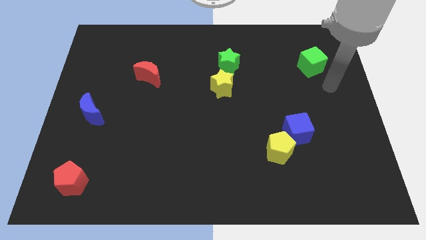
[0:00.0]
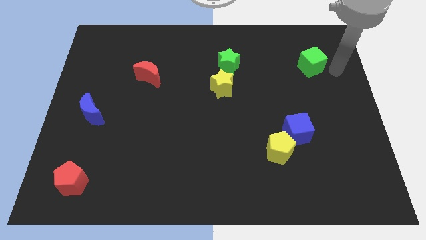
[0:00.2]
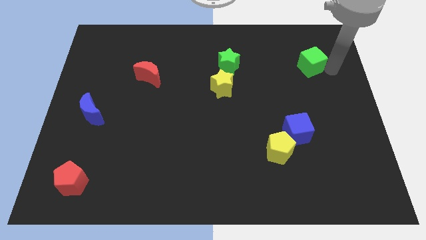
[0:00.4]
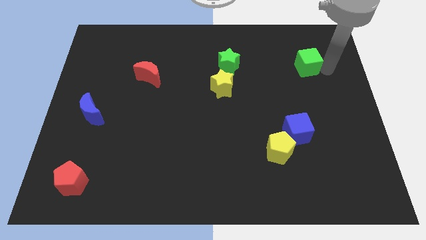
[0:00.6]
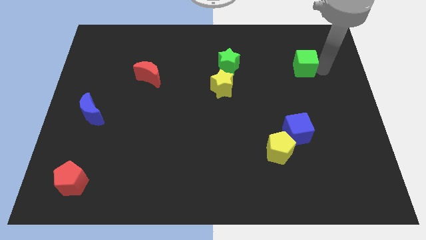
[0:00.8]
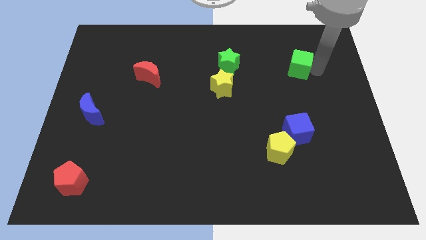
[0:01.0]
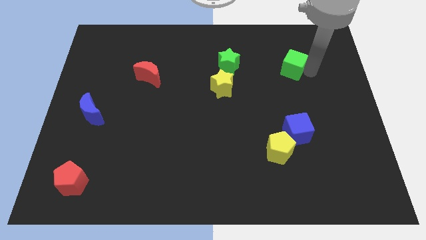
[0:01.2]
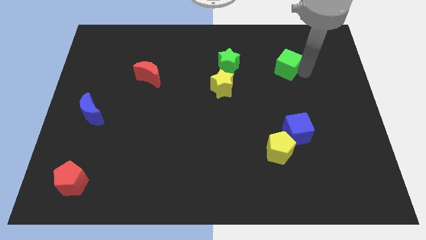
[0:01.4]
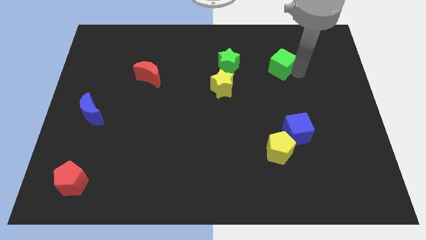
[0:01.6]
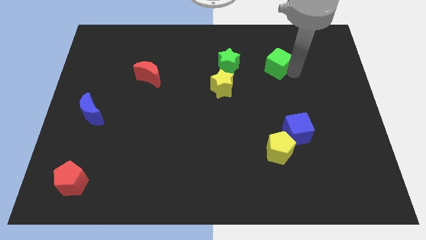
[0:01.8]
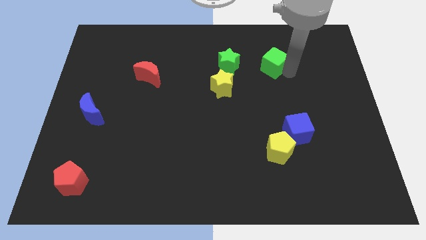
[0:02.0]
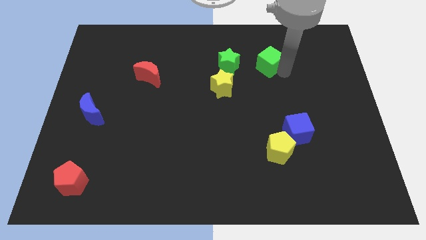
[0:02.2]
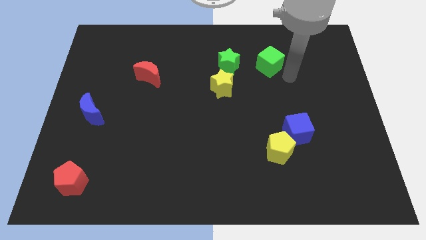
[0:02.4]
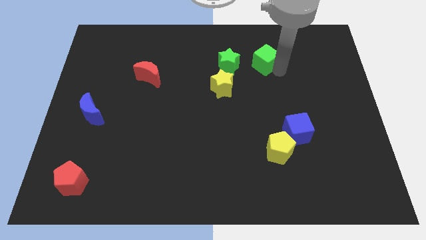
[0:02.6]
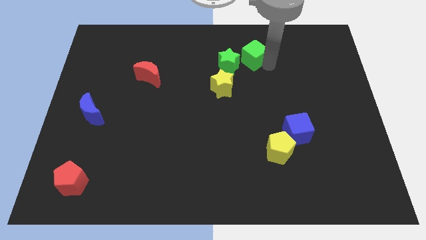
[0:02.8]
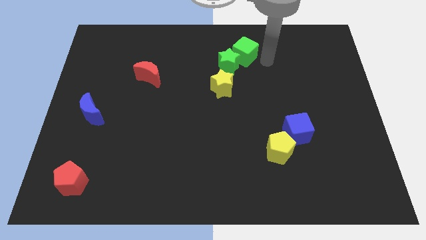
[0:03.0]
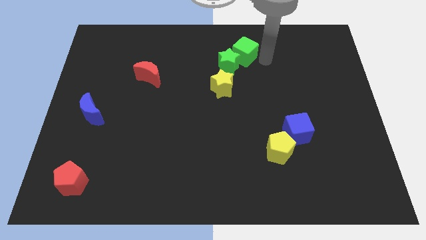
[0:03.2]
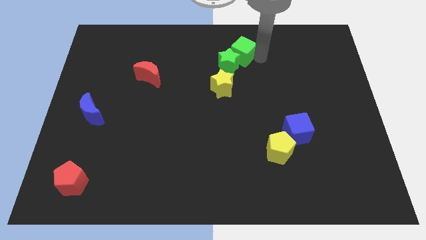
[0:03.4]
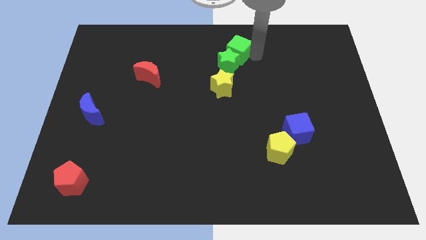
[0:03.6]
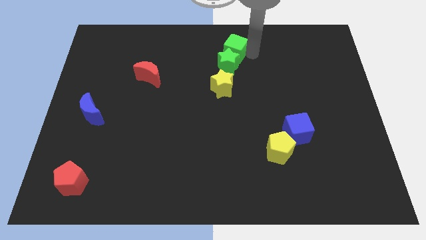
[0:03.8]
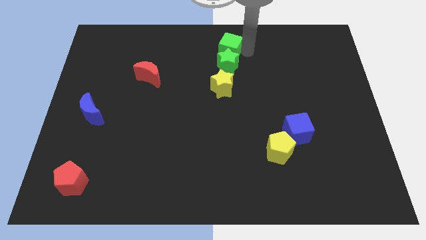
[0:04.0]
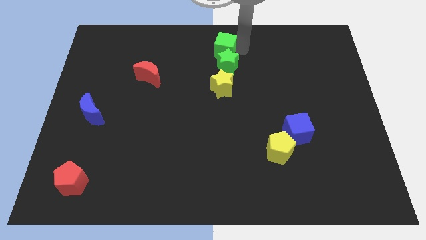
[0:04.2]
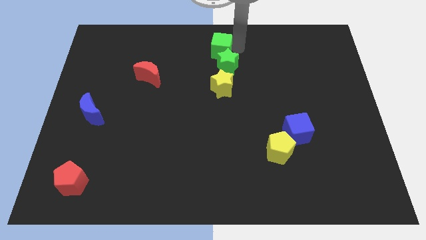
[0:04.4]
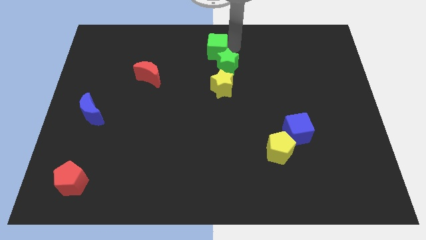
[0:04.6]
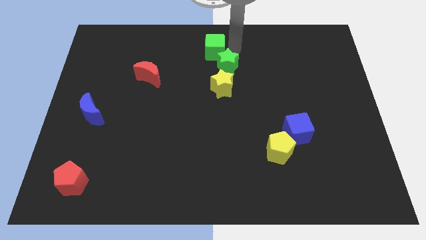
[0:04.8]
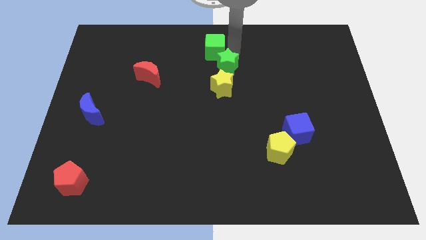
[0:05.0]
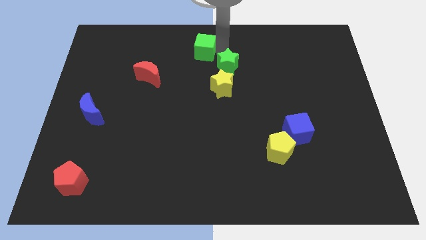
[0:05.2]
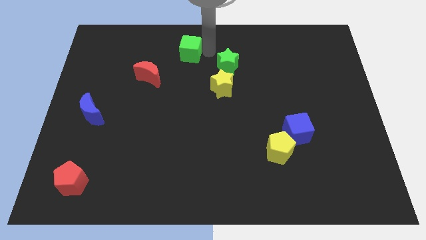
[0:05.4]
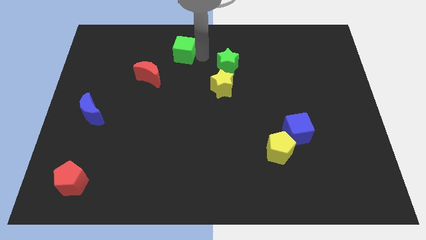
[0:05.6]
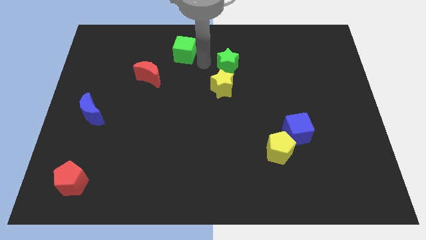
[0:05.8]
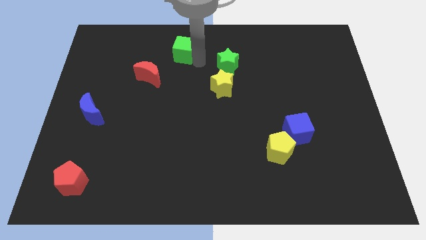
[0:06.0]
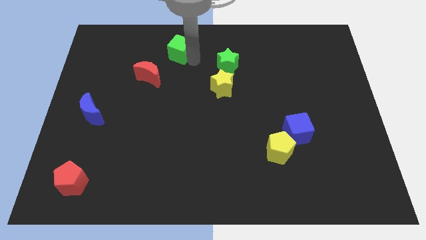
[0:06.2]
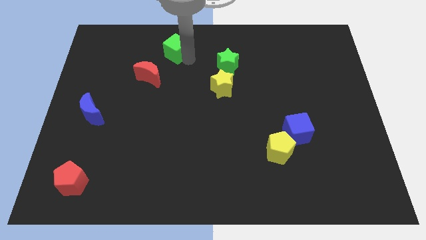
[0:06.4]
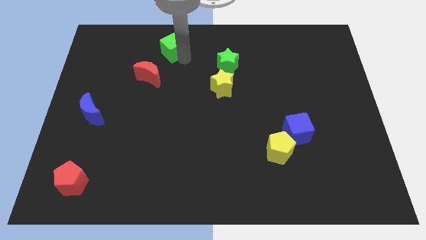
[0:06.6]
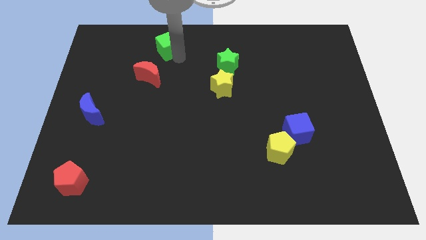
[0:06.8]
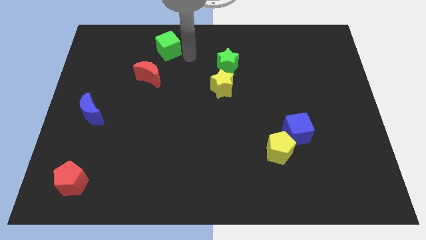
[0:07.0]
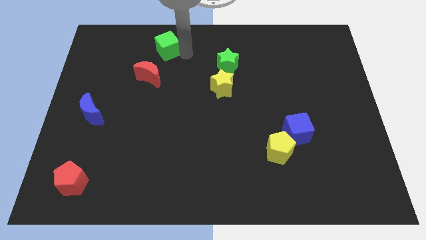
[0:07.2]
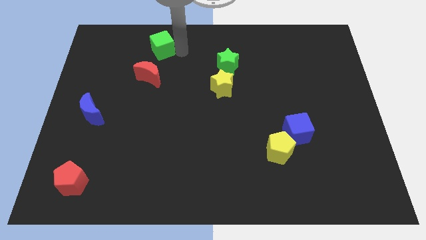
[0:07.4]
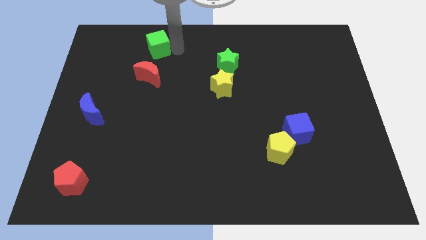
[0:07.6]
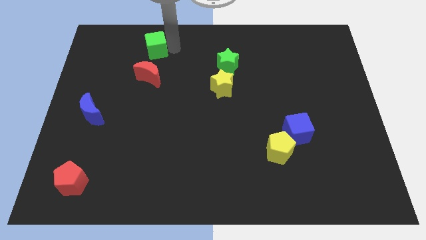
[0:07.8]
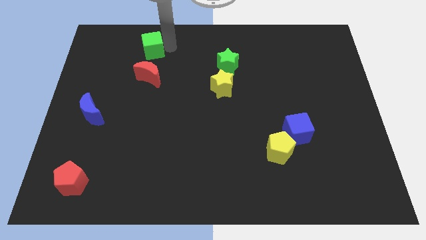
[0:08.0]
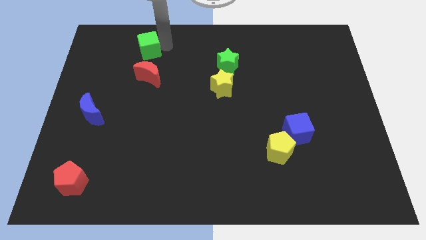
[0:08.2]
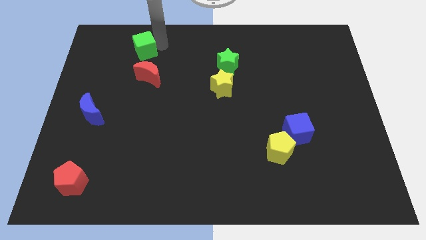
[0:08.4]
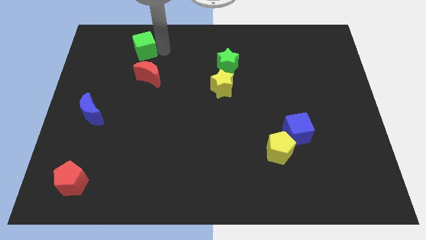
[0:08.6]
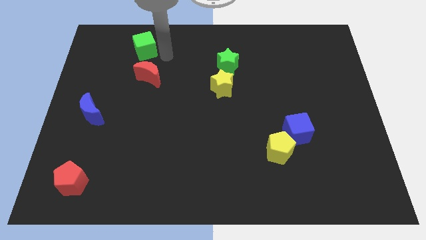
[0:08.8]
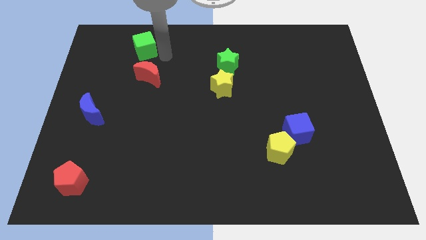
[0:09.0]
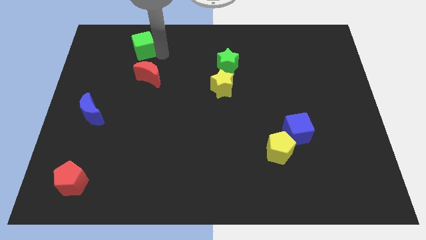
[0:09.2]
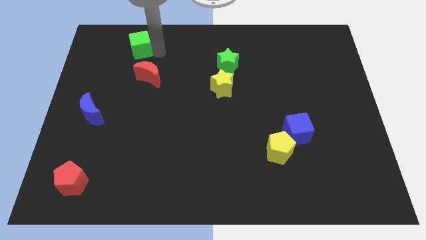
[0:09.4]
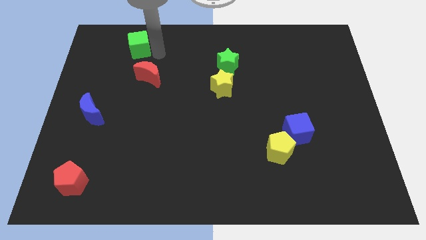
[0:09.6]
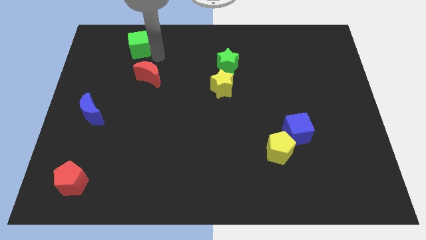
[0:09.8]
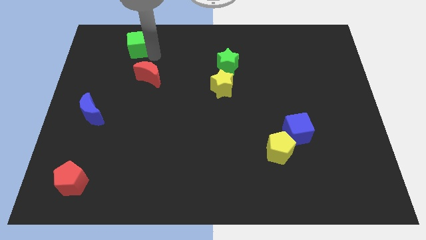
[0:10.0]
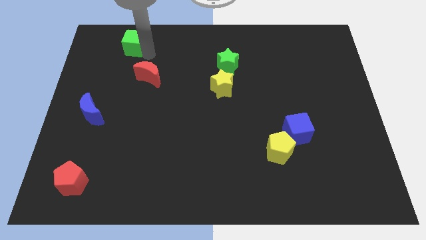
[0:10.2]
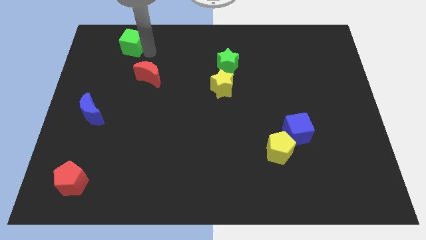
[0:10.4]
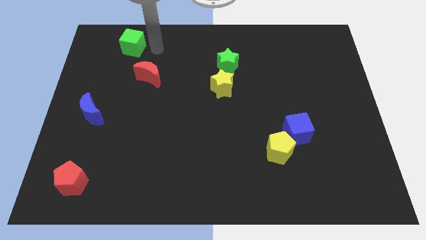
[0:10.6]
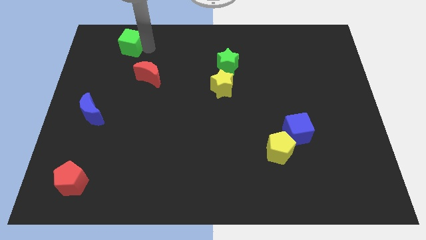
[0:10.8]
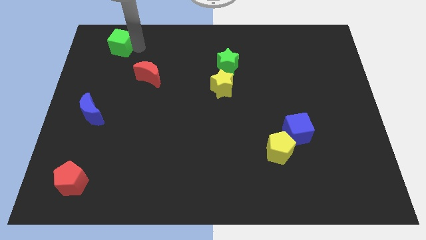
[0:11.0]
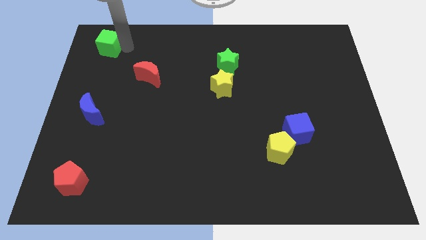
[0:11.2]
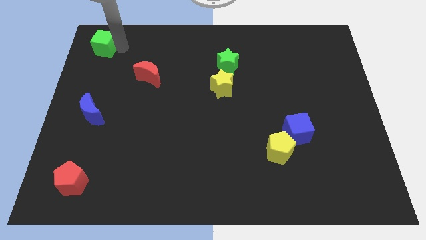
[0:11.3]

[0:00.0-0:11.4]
put the green cube to the top left

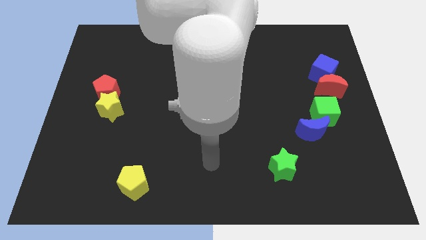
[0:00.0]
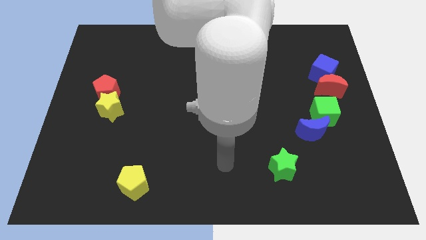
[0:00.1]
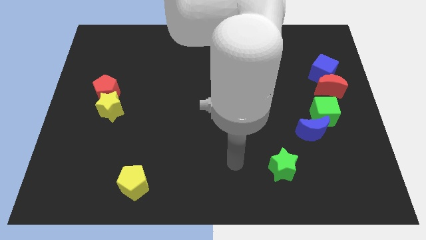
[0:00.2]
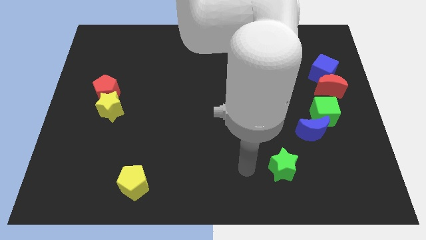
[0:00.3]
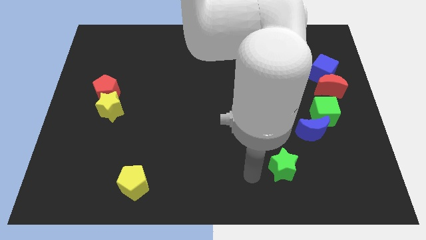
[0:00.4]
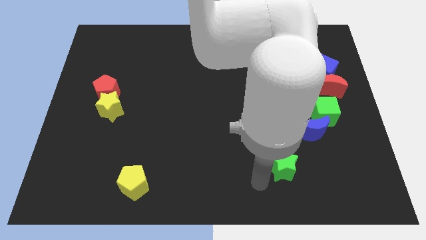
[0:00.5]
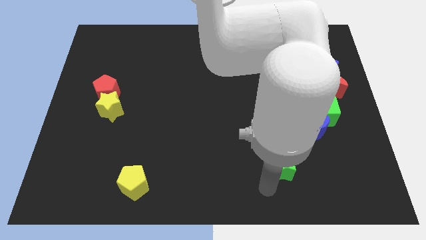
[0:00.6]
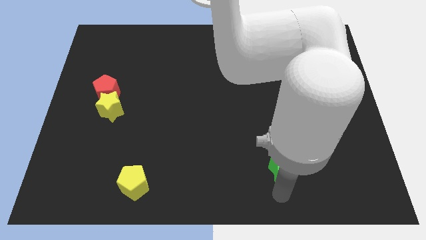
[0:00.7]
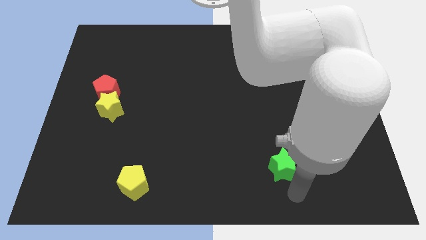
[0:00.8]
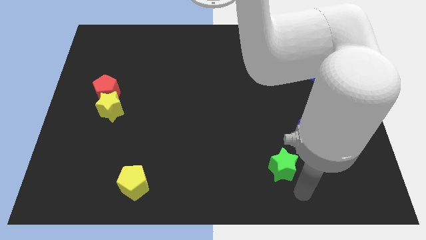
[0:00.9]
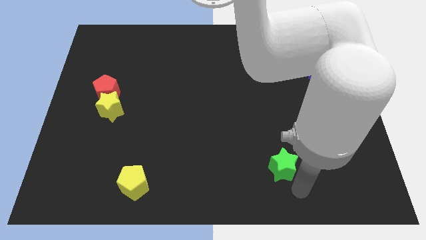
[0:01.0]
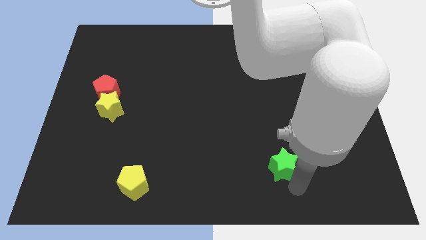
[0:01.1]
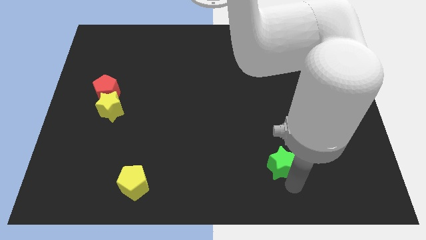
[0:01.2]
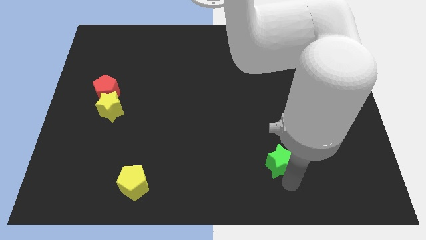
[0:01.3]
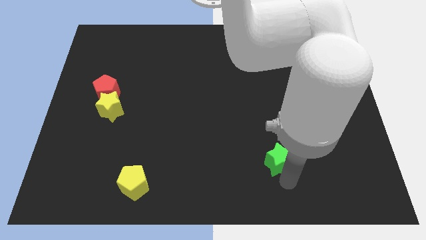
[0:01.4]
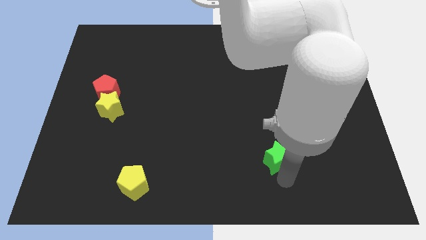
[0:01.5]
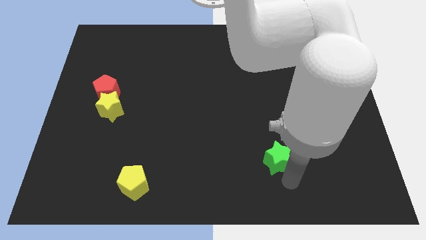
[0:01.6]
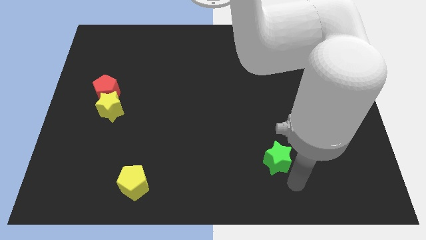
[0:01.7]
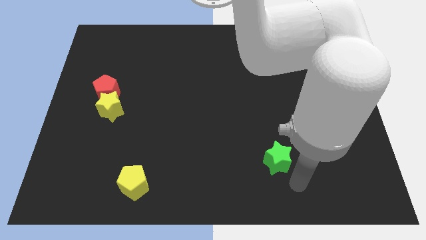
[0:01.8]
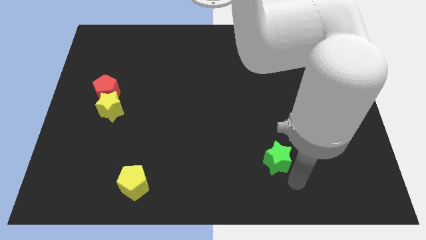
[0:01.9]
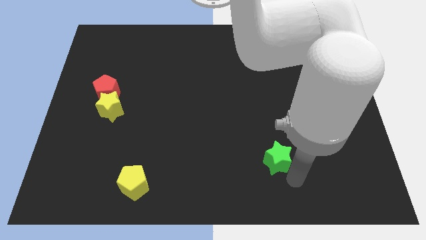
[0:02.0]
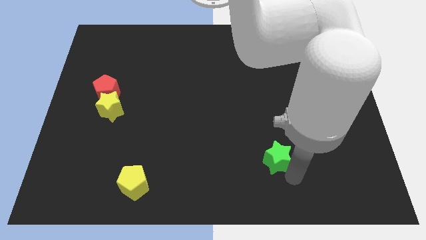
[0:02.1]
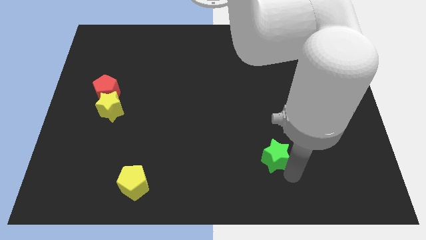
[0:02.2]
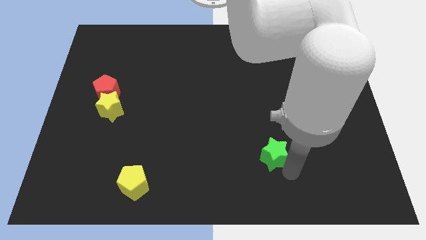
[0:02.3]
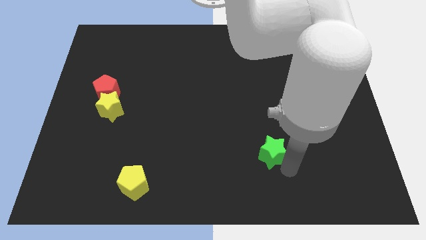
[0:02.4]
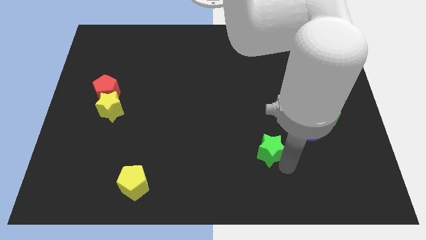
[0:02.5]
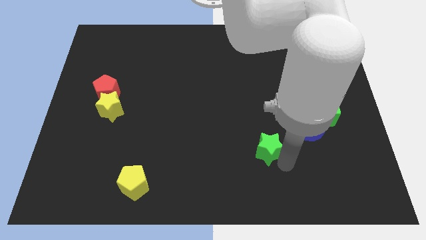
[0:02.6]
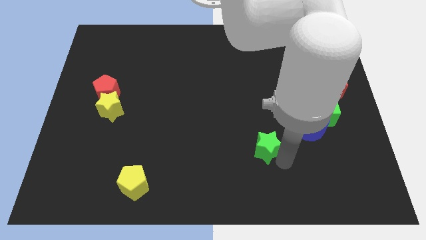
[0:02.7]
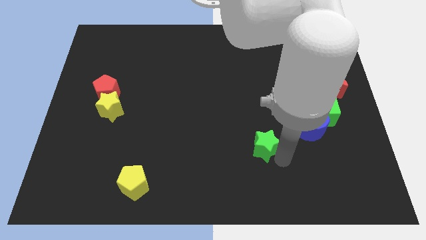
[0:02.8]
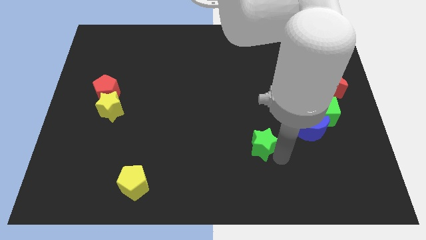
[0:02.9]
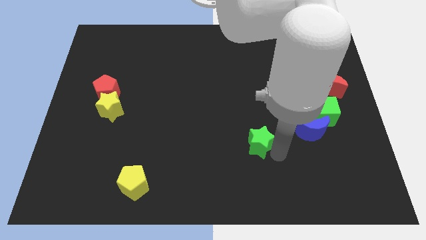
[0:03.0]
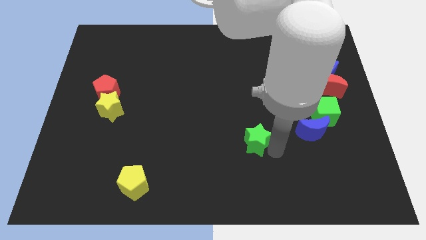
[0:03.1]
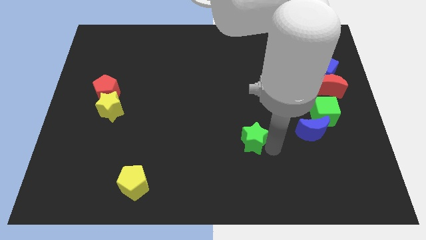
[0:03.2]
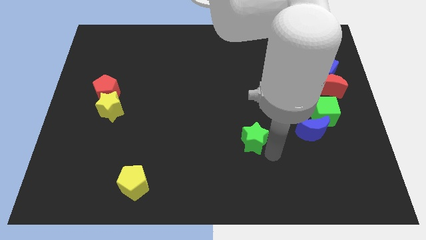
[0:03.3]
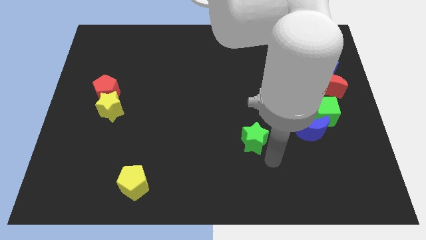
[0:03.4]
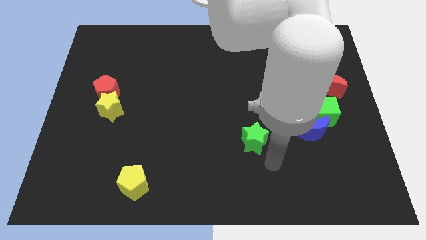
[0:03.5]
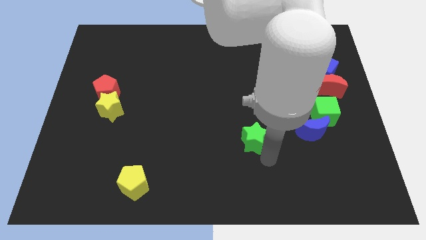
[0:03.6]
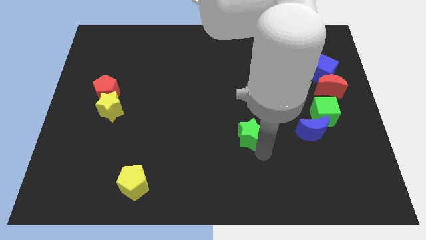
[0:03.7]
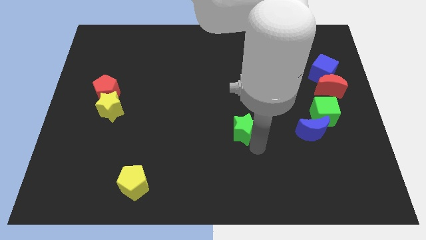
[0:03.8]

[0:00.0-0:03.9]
push the green star to the middle of the board
